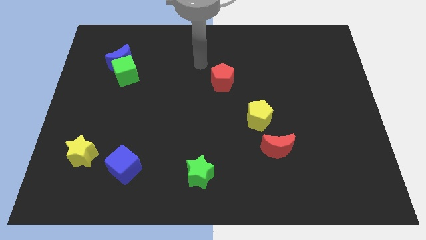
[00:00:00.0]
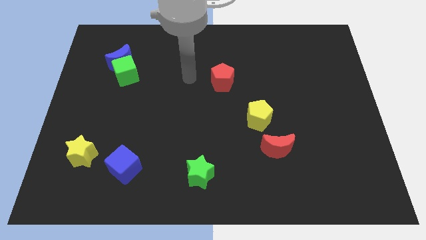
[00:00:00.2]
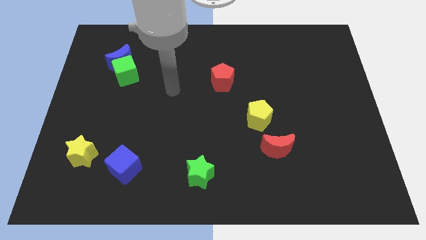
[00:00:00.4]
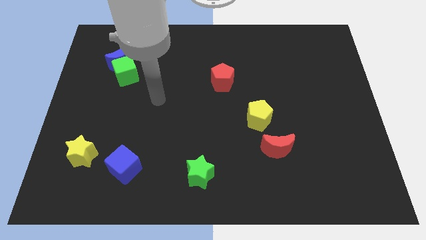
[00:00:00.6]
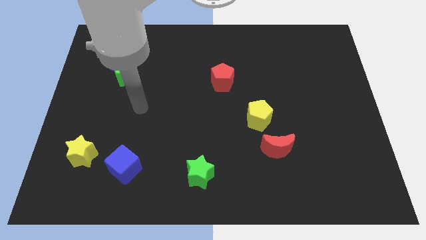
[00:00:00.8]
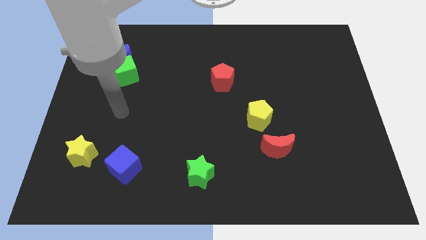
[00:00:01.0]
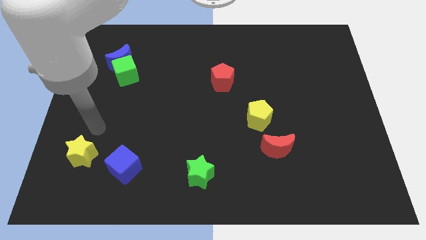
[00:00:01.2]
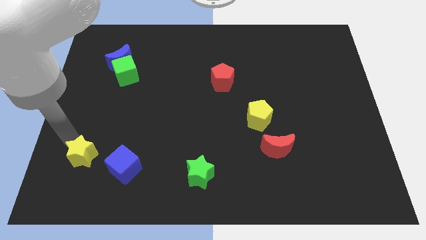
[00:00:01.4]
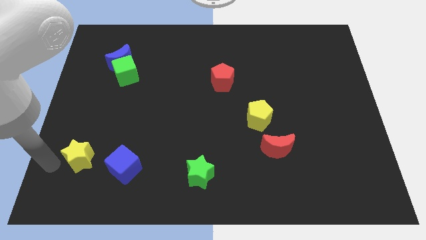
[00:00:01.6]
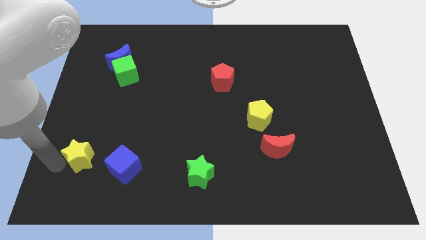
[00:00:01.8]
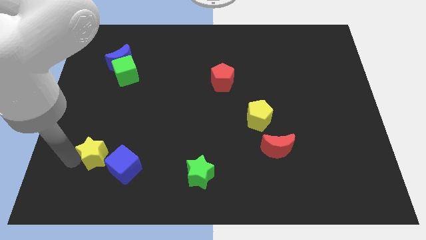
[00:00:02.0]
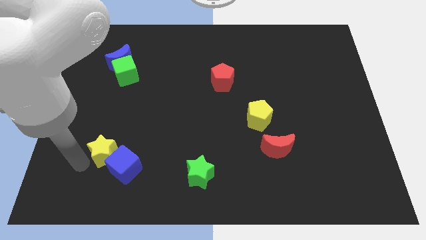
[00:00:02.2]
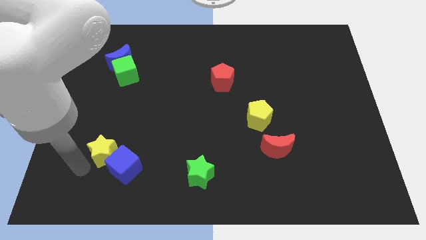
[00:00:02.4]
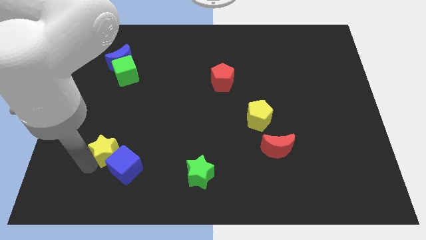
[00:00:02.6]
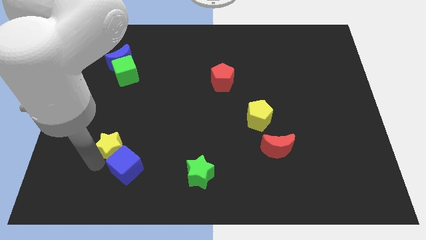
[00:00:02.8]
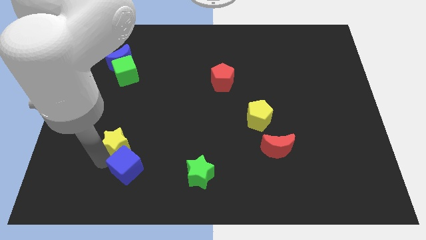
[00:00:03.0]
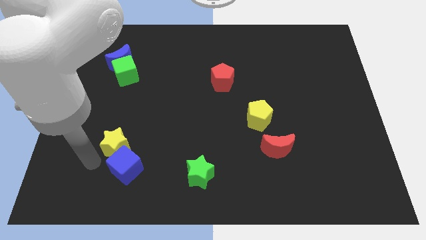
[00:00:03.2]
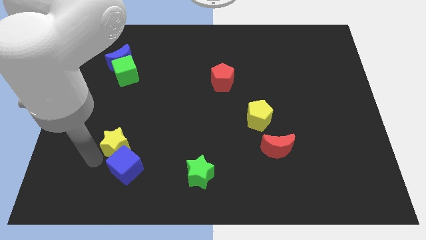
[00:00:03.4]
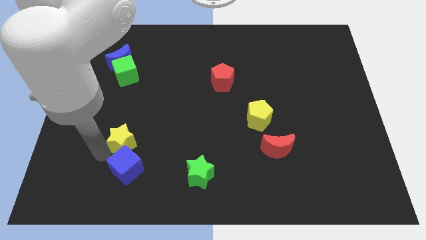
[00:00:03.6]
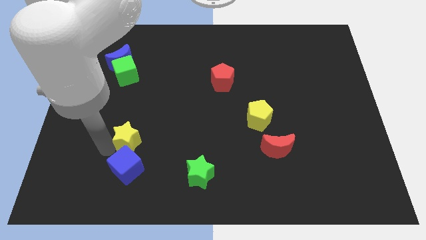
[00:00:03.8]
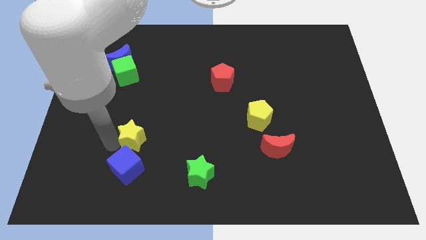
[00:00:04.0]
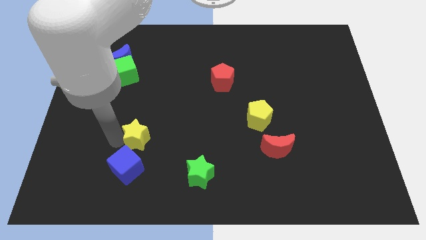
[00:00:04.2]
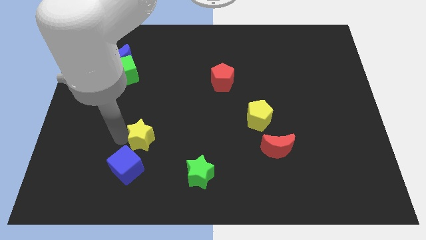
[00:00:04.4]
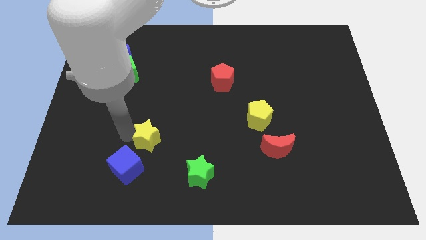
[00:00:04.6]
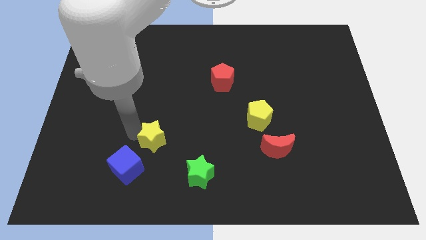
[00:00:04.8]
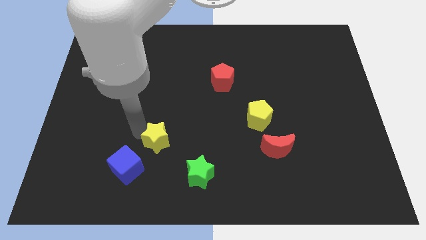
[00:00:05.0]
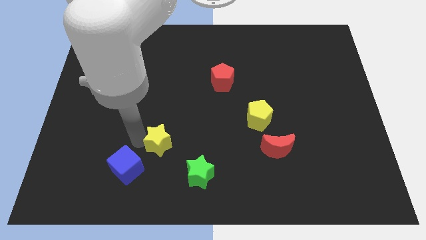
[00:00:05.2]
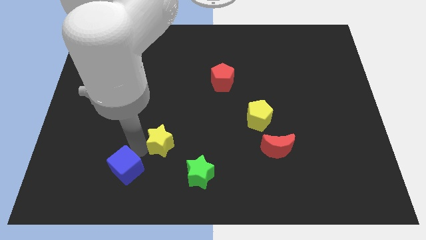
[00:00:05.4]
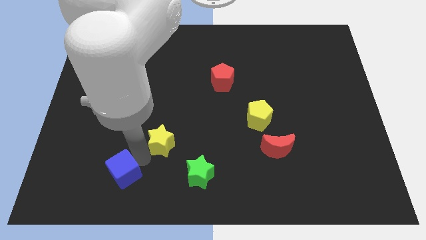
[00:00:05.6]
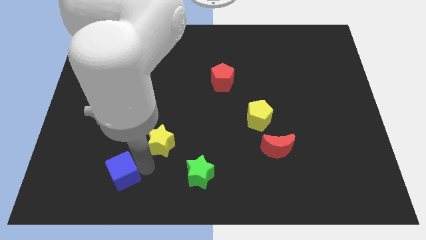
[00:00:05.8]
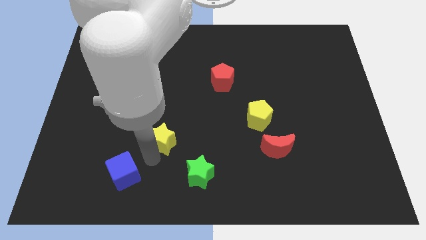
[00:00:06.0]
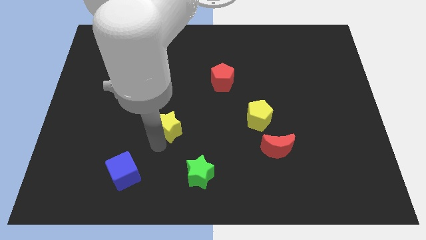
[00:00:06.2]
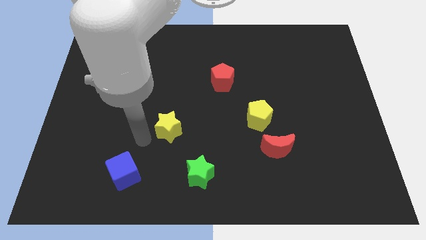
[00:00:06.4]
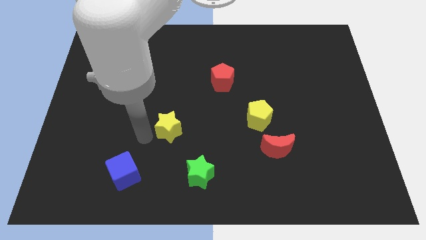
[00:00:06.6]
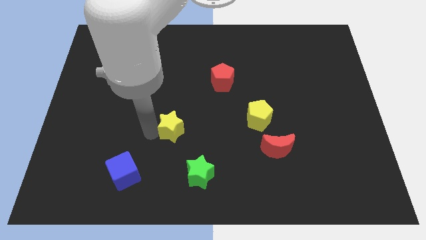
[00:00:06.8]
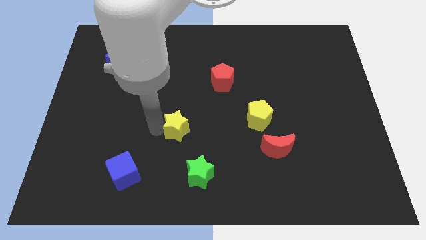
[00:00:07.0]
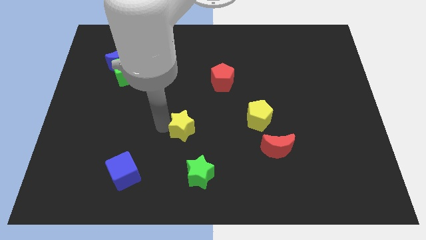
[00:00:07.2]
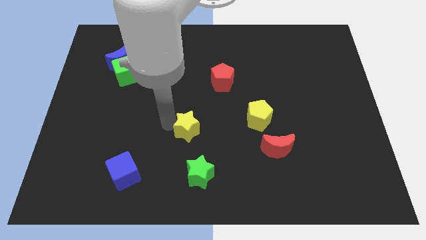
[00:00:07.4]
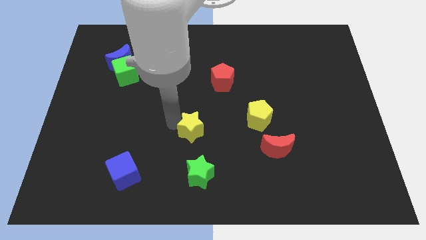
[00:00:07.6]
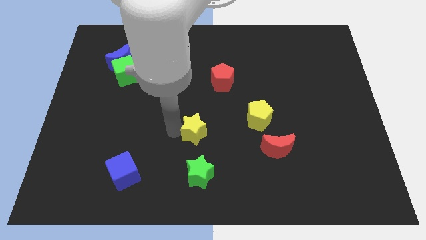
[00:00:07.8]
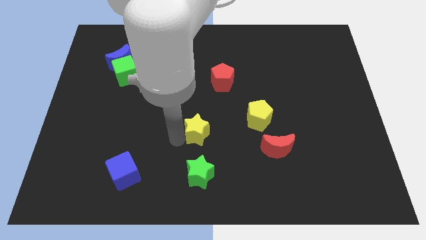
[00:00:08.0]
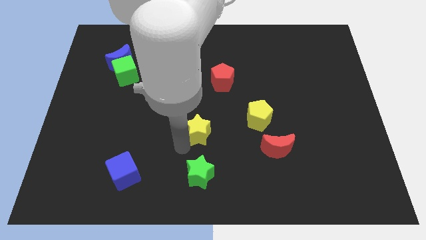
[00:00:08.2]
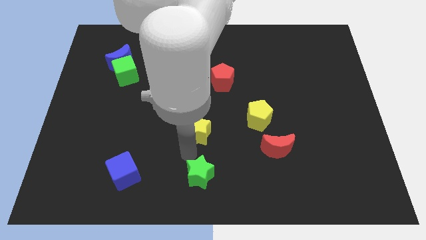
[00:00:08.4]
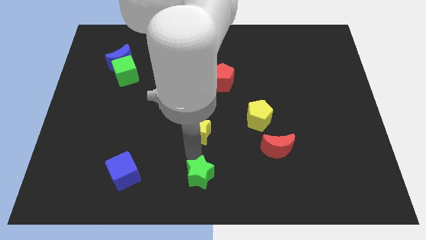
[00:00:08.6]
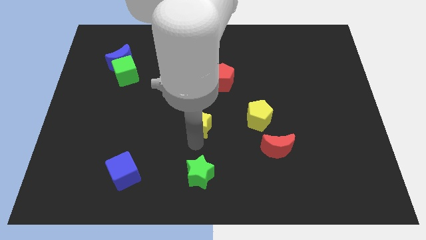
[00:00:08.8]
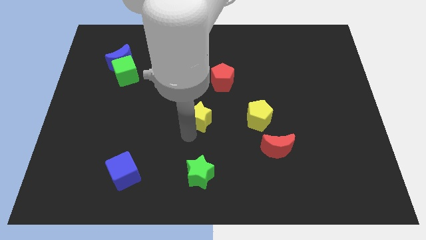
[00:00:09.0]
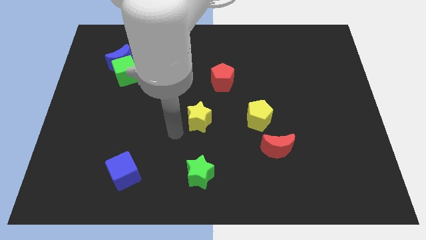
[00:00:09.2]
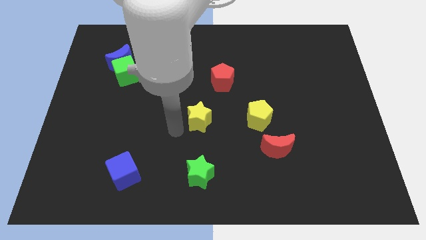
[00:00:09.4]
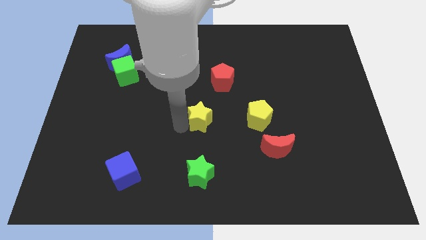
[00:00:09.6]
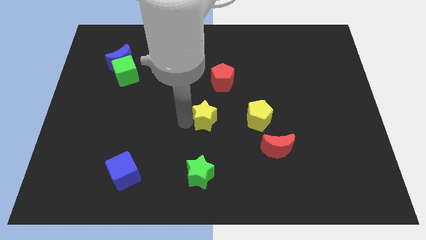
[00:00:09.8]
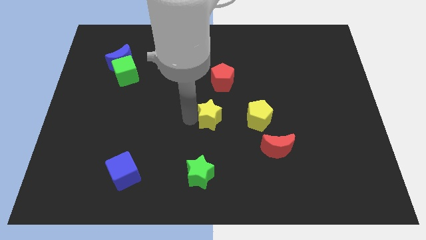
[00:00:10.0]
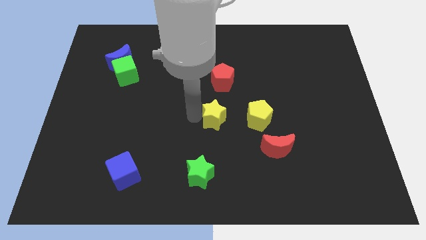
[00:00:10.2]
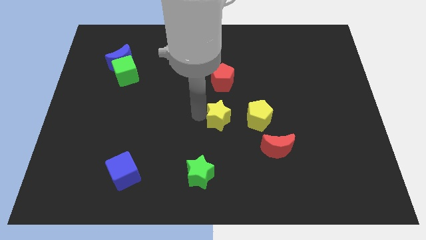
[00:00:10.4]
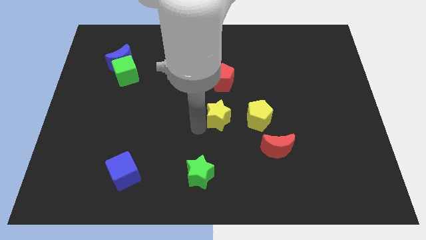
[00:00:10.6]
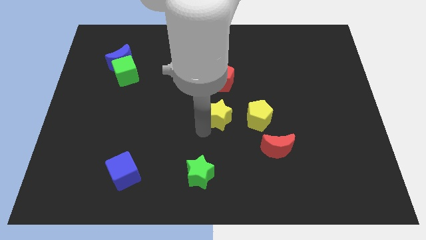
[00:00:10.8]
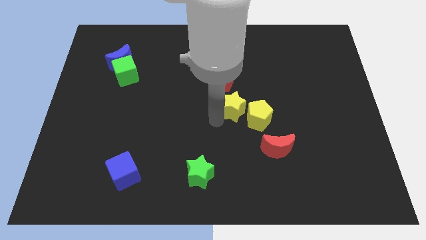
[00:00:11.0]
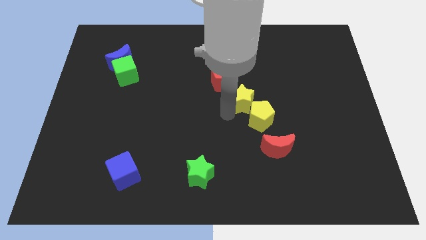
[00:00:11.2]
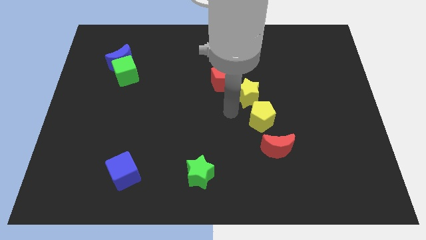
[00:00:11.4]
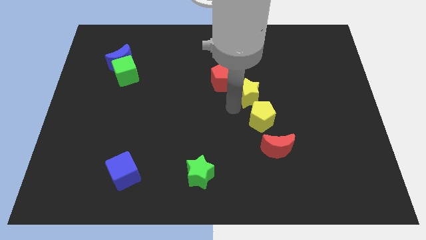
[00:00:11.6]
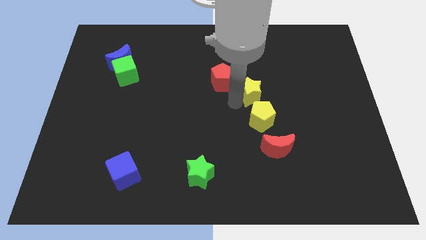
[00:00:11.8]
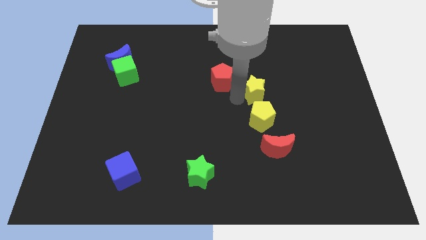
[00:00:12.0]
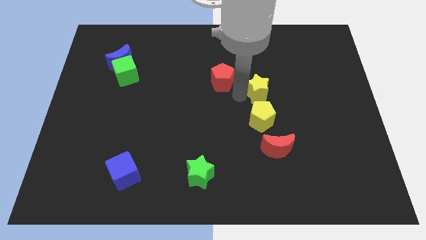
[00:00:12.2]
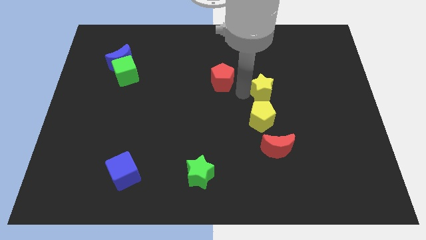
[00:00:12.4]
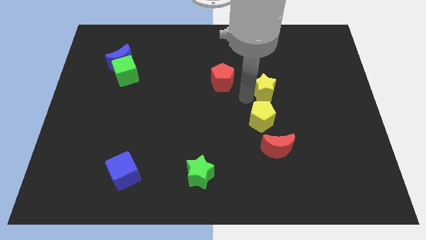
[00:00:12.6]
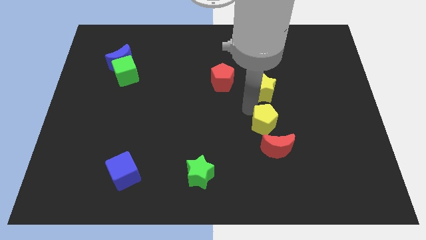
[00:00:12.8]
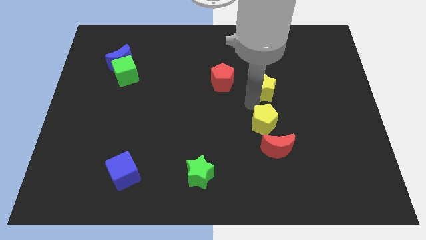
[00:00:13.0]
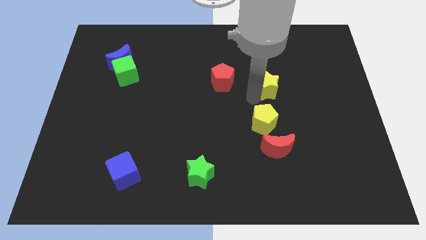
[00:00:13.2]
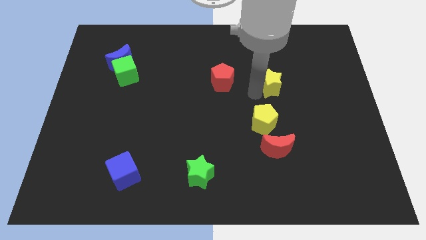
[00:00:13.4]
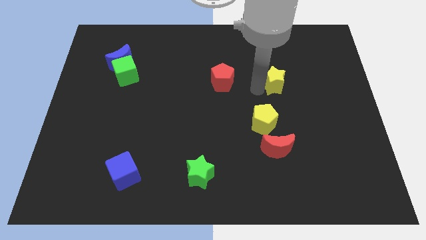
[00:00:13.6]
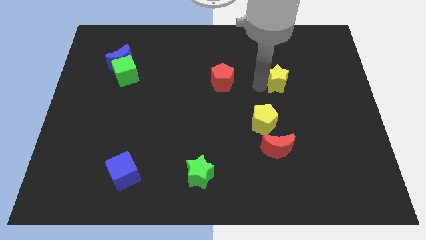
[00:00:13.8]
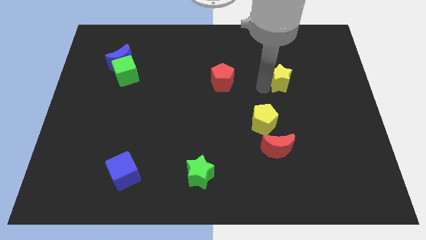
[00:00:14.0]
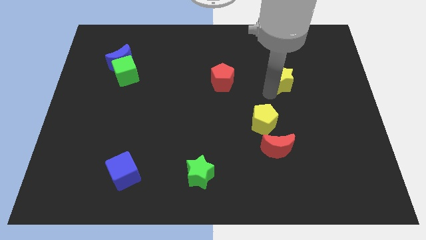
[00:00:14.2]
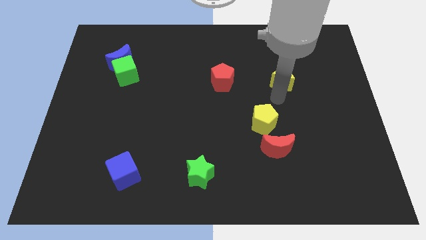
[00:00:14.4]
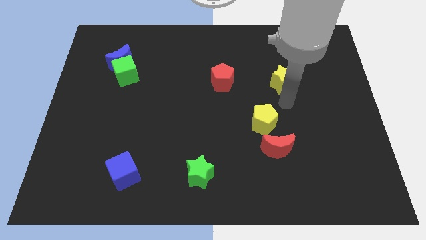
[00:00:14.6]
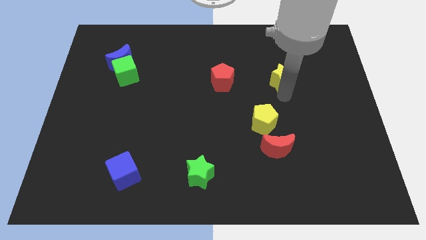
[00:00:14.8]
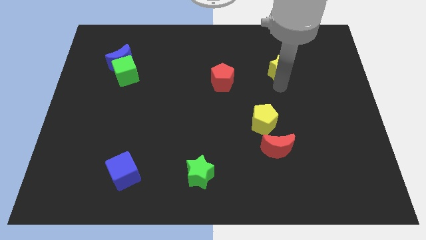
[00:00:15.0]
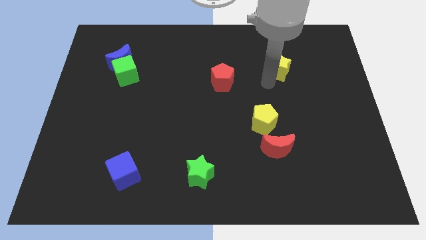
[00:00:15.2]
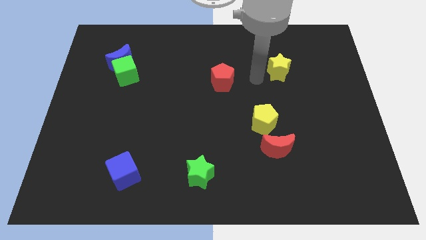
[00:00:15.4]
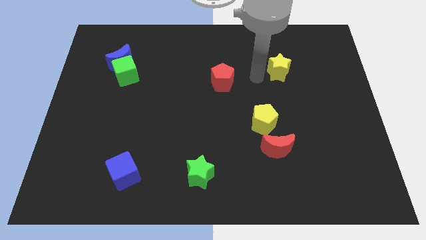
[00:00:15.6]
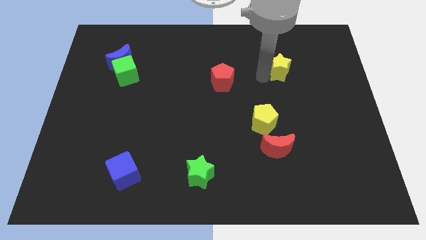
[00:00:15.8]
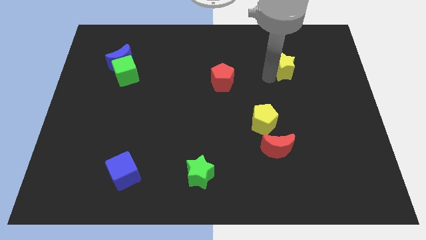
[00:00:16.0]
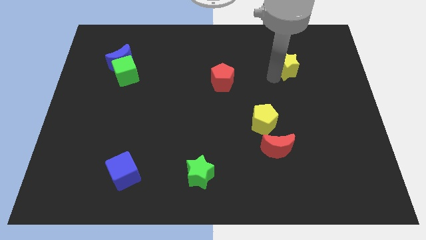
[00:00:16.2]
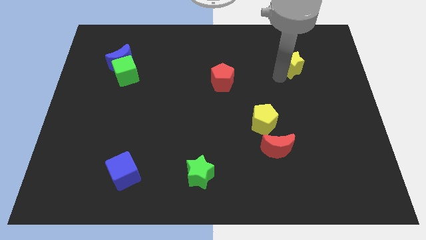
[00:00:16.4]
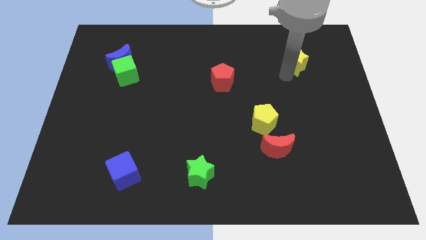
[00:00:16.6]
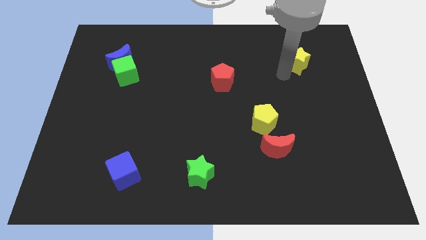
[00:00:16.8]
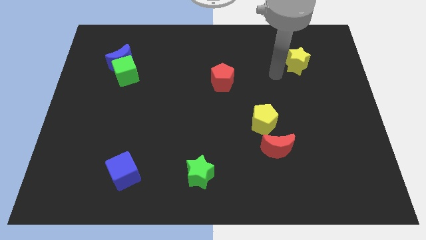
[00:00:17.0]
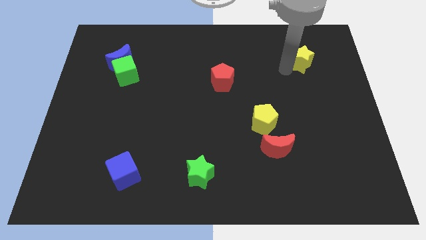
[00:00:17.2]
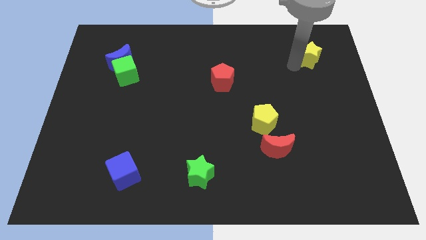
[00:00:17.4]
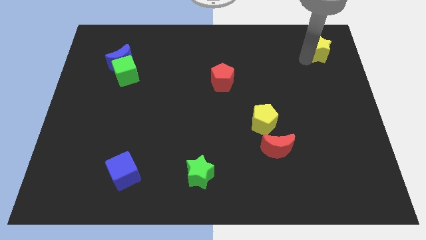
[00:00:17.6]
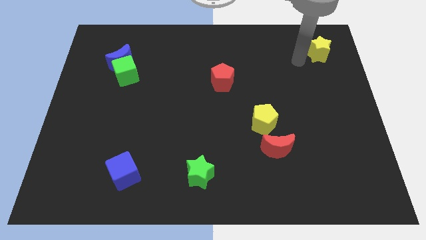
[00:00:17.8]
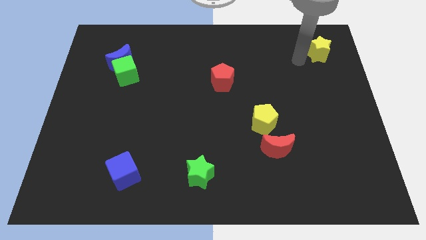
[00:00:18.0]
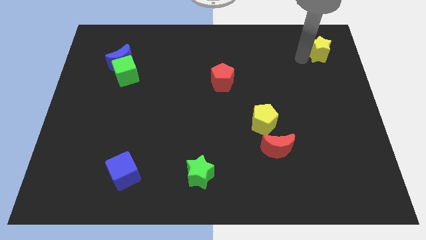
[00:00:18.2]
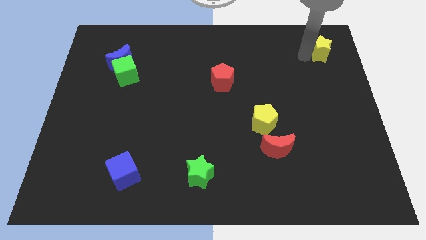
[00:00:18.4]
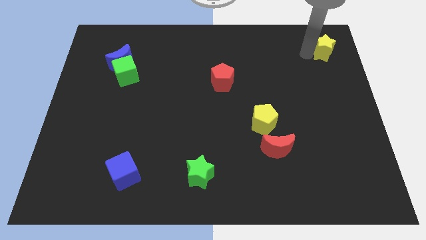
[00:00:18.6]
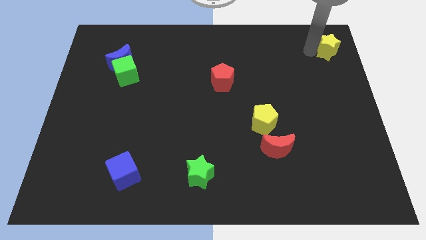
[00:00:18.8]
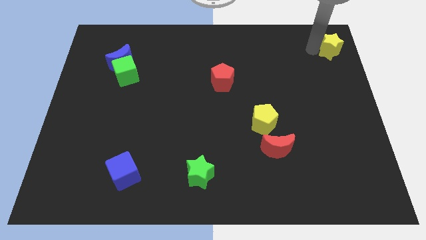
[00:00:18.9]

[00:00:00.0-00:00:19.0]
slide the yellow star to the top right
